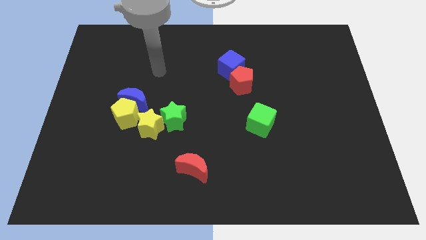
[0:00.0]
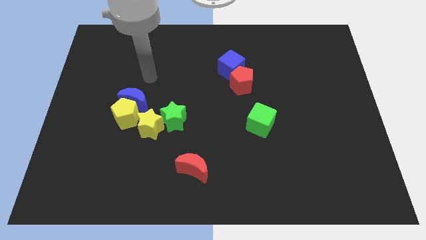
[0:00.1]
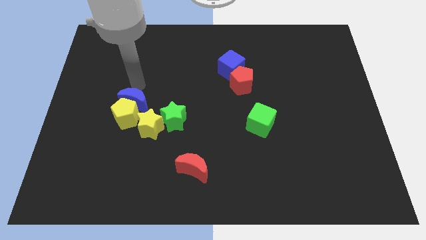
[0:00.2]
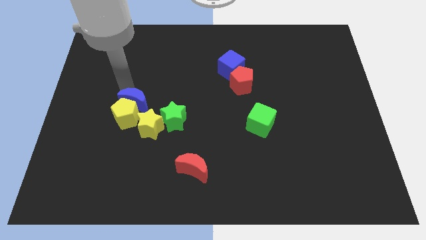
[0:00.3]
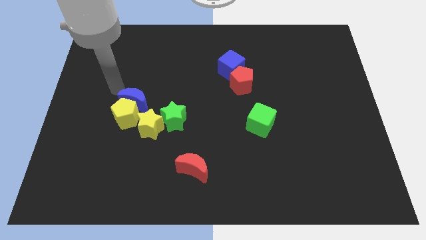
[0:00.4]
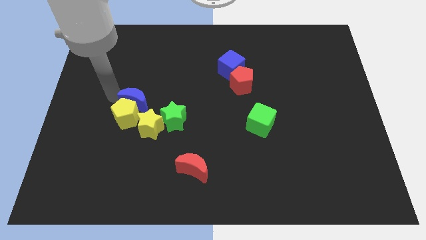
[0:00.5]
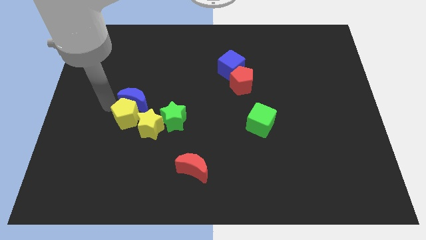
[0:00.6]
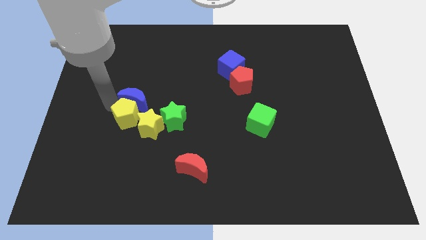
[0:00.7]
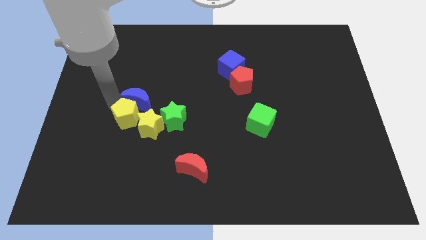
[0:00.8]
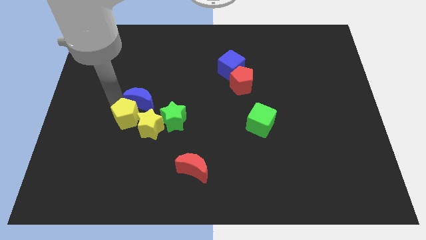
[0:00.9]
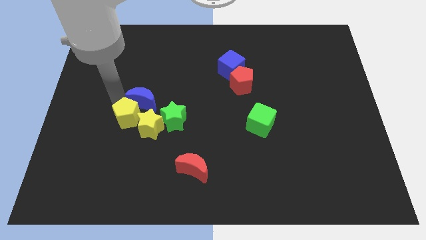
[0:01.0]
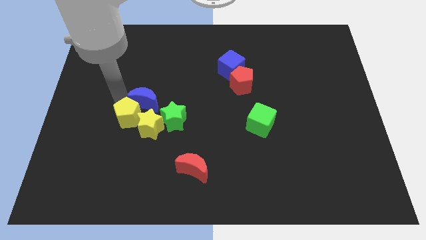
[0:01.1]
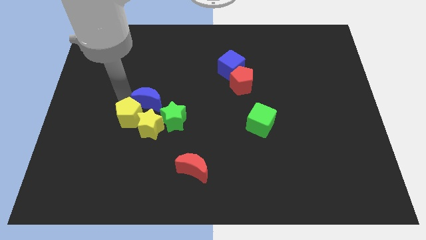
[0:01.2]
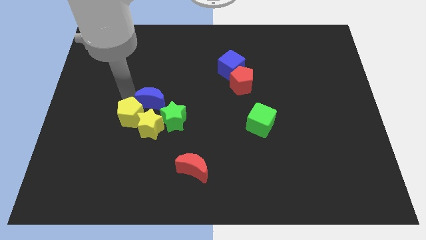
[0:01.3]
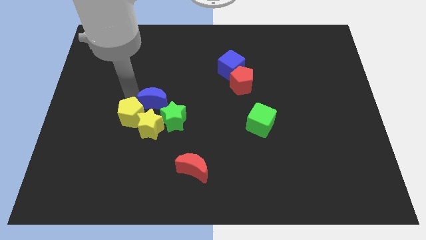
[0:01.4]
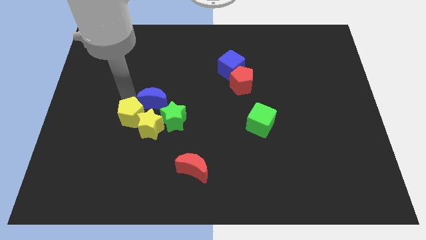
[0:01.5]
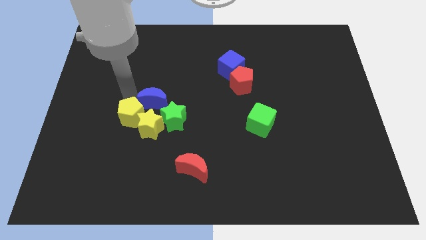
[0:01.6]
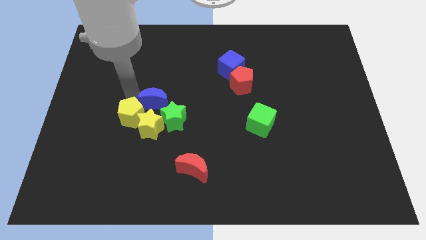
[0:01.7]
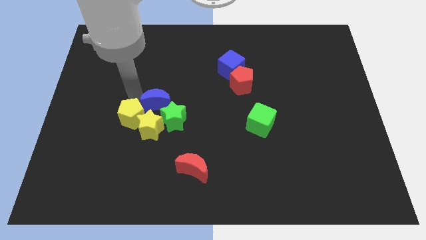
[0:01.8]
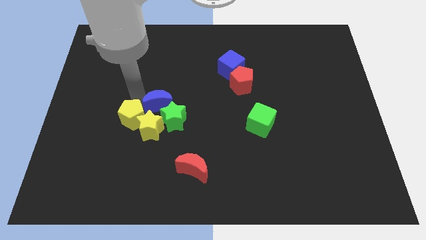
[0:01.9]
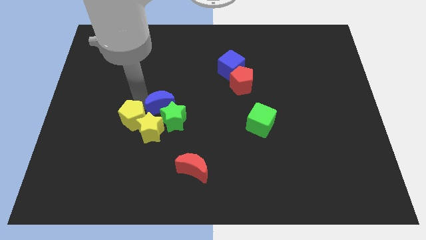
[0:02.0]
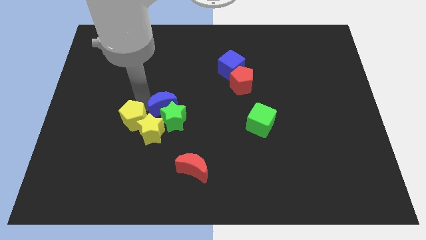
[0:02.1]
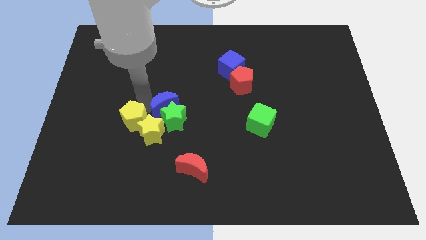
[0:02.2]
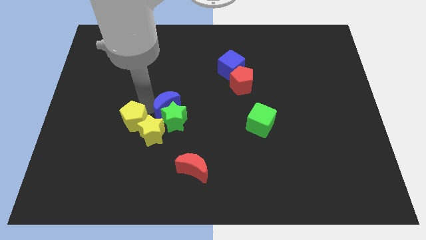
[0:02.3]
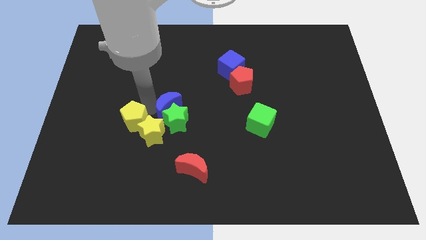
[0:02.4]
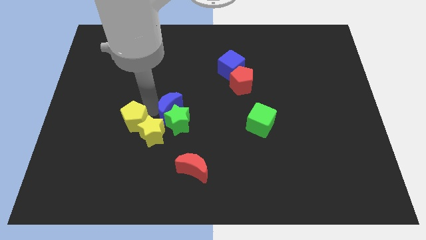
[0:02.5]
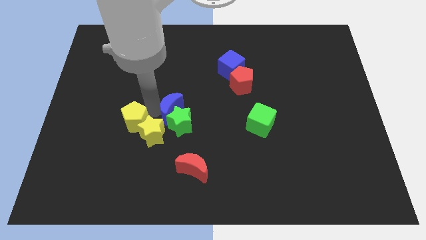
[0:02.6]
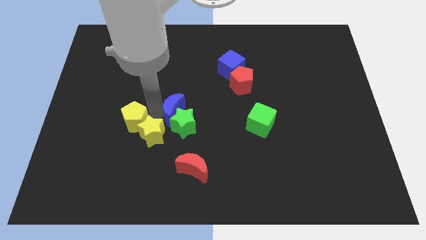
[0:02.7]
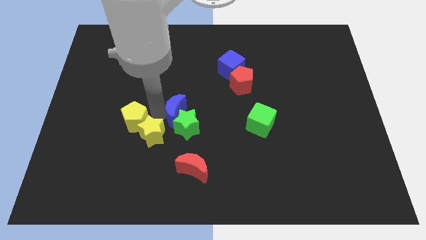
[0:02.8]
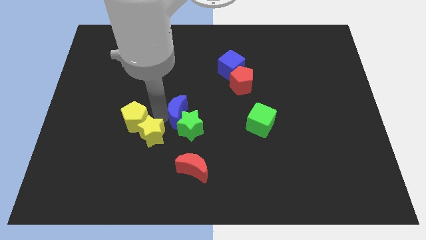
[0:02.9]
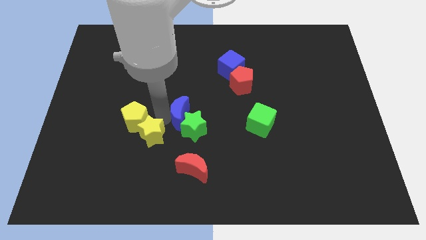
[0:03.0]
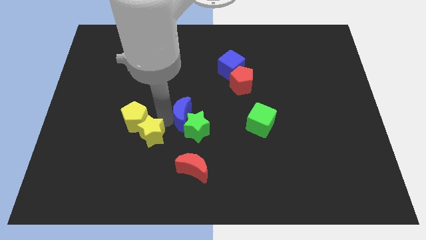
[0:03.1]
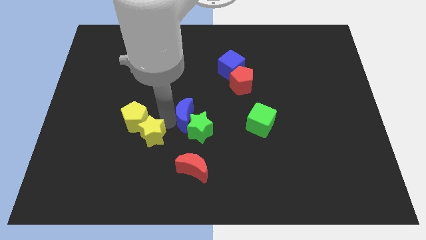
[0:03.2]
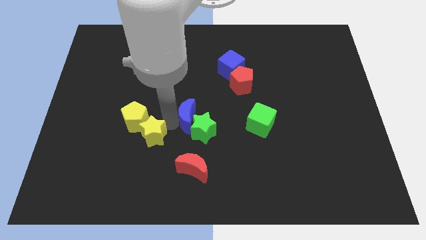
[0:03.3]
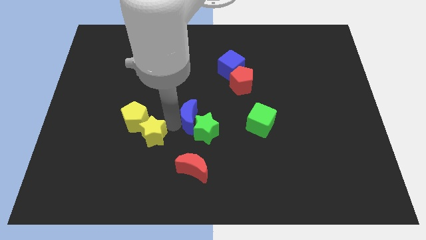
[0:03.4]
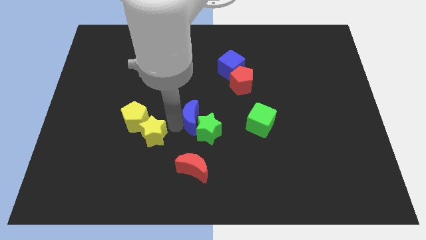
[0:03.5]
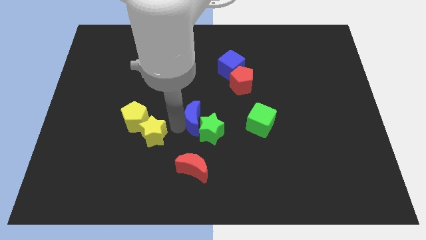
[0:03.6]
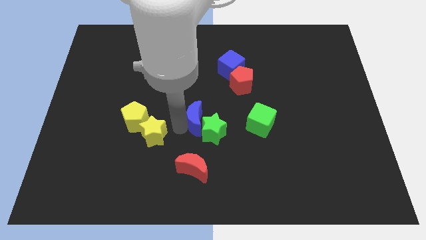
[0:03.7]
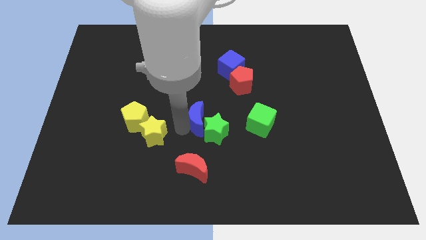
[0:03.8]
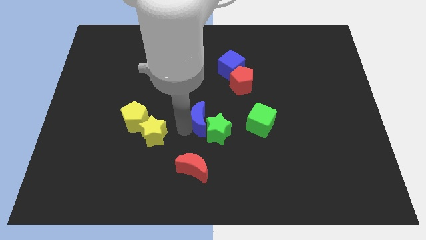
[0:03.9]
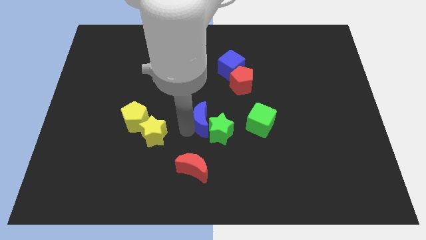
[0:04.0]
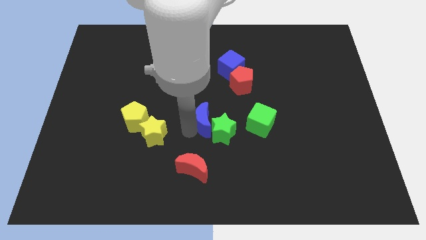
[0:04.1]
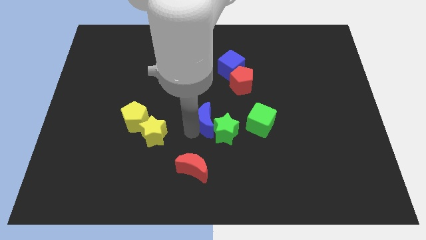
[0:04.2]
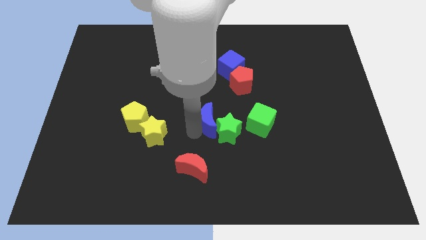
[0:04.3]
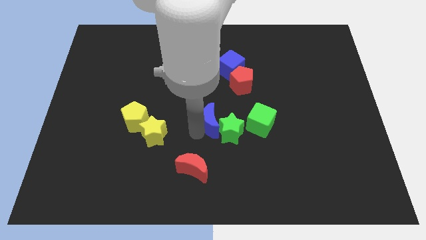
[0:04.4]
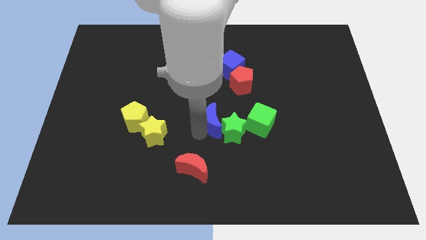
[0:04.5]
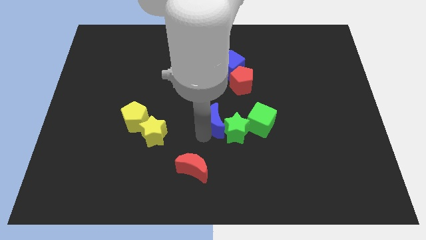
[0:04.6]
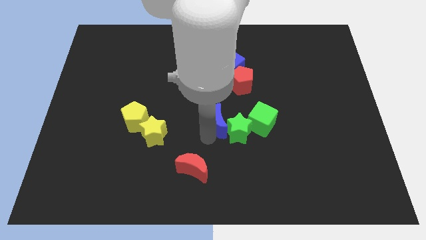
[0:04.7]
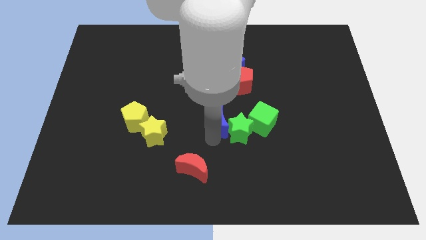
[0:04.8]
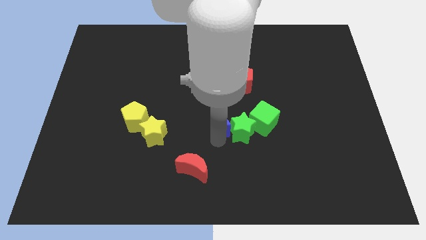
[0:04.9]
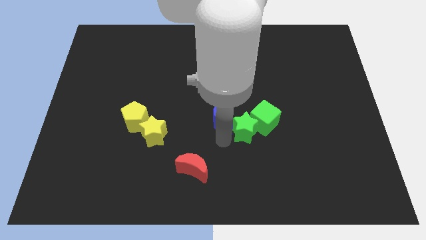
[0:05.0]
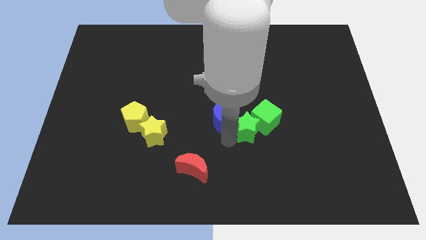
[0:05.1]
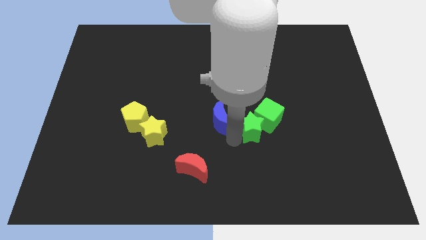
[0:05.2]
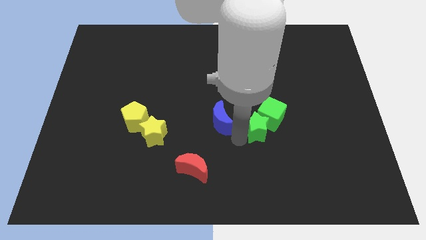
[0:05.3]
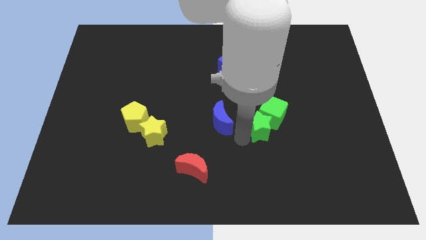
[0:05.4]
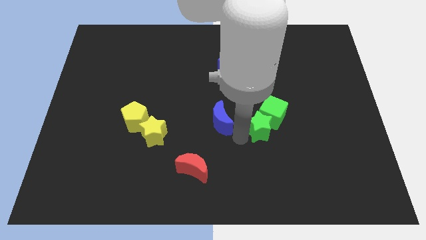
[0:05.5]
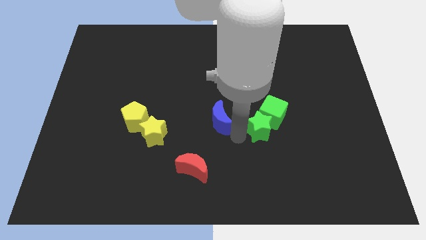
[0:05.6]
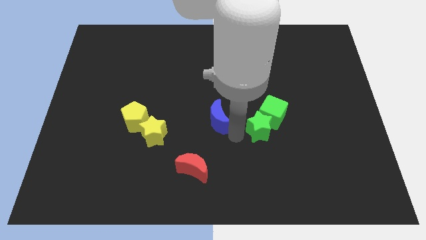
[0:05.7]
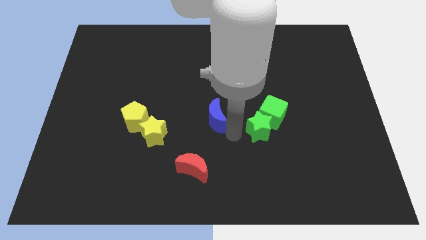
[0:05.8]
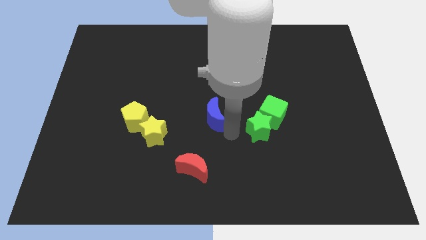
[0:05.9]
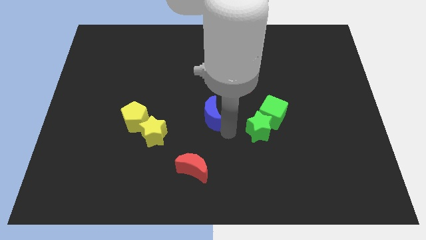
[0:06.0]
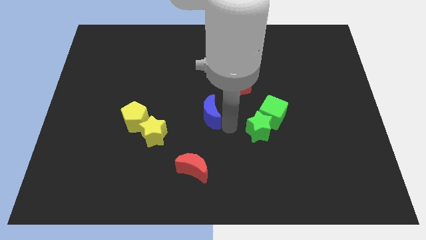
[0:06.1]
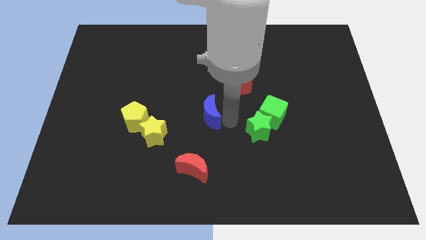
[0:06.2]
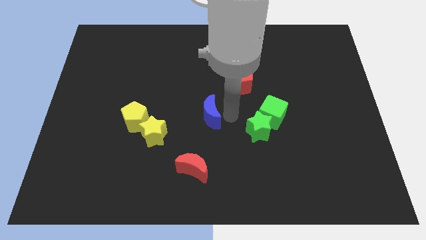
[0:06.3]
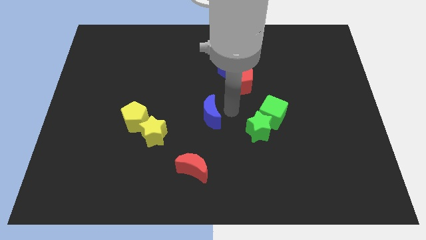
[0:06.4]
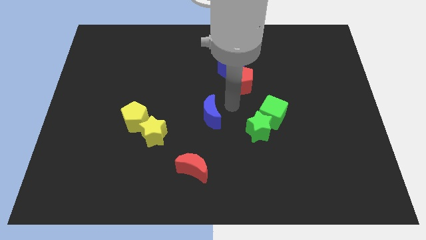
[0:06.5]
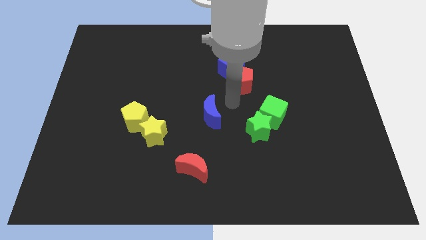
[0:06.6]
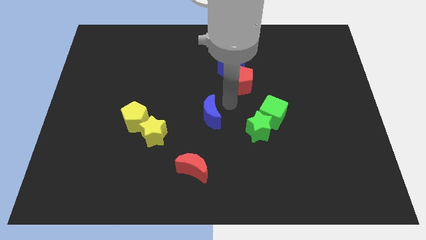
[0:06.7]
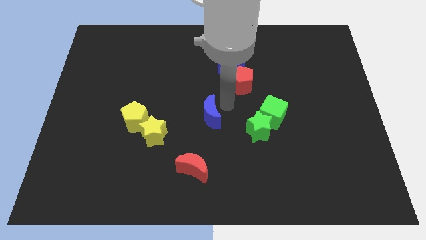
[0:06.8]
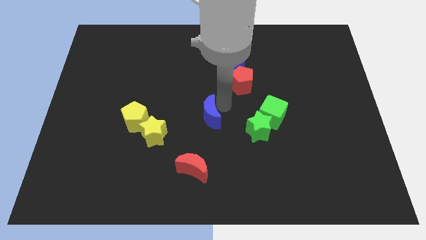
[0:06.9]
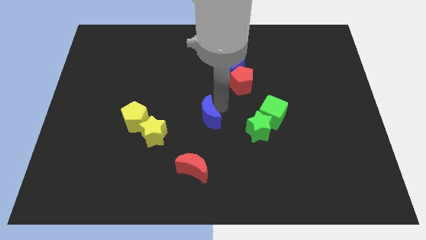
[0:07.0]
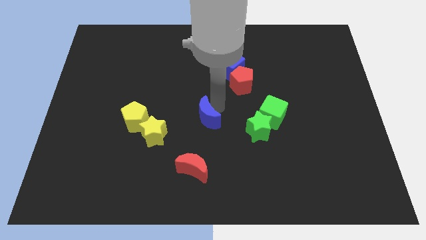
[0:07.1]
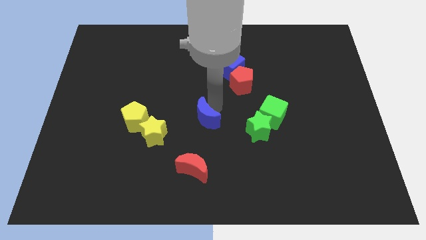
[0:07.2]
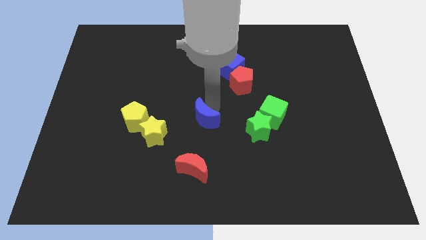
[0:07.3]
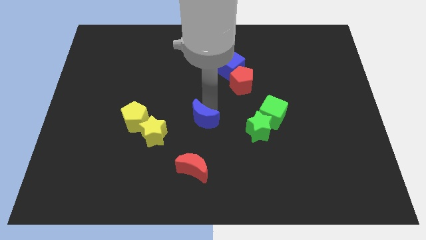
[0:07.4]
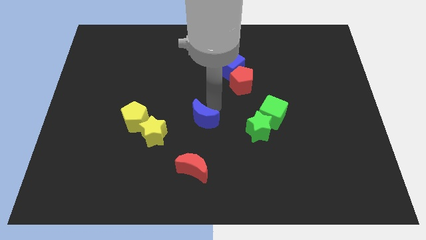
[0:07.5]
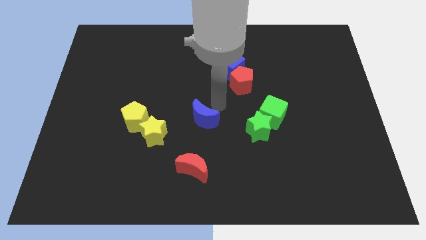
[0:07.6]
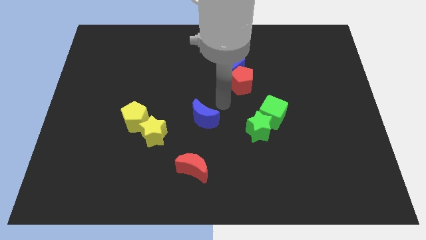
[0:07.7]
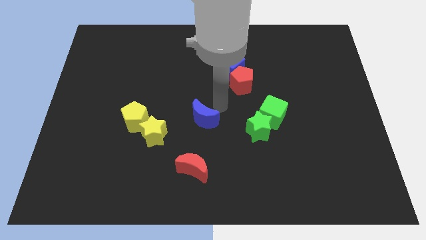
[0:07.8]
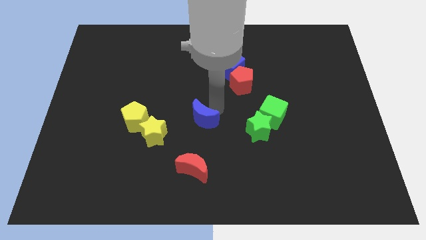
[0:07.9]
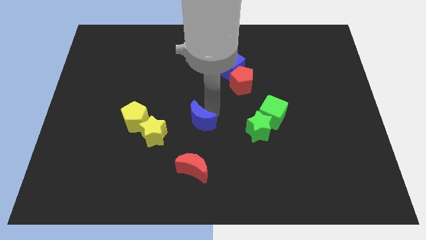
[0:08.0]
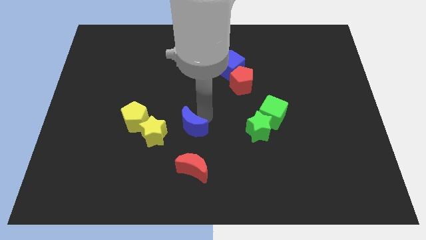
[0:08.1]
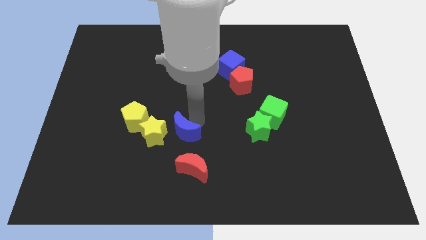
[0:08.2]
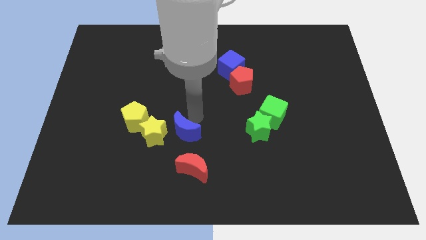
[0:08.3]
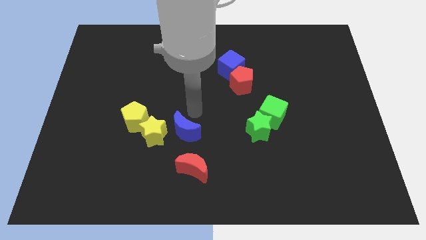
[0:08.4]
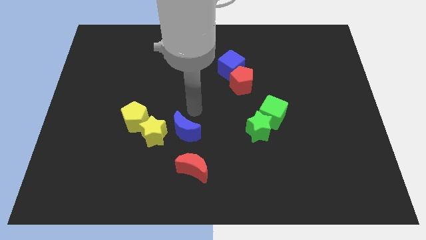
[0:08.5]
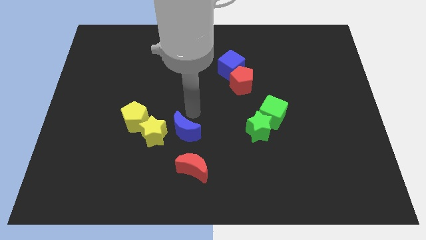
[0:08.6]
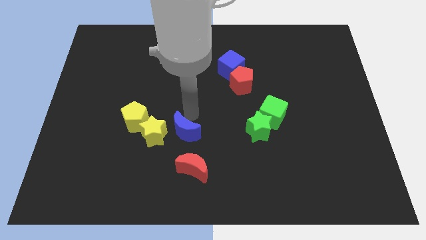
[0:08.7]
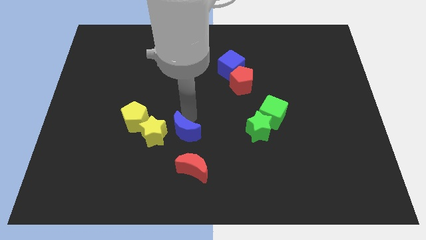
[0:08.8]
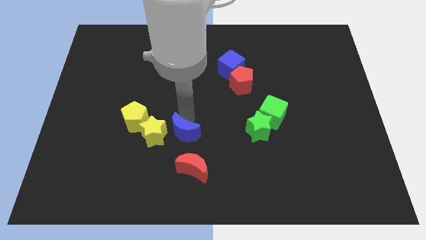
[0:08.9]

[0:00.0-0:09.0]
slide the blue moon to the bottom right of the yellow star
